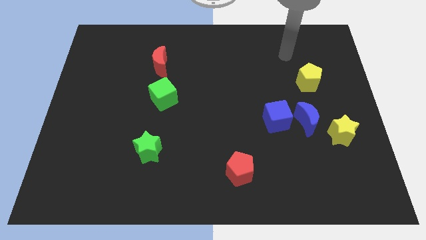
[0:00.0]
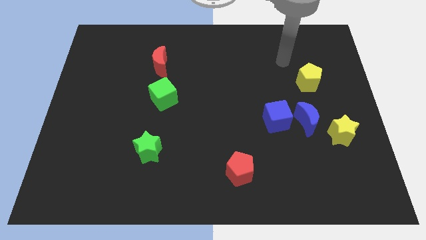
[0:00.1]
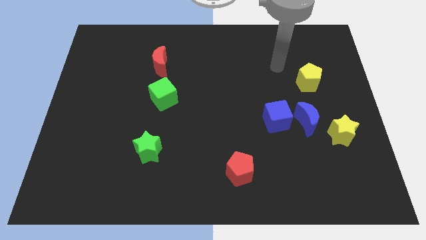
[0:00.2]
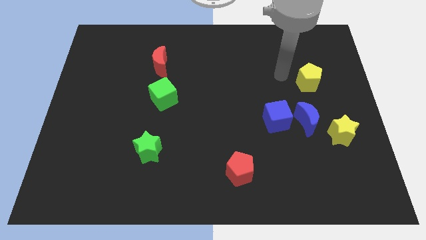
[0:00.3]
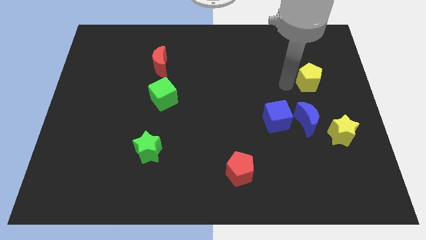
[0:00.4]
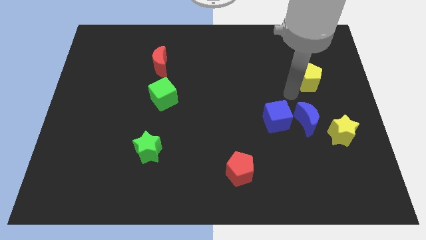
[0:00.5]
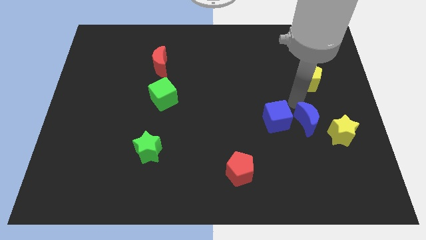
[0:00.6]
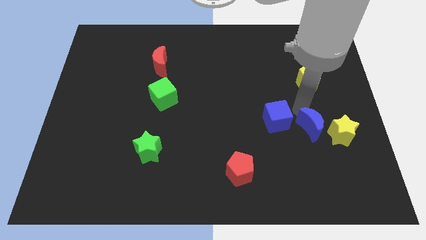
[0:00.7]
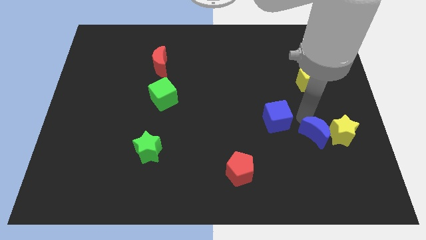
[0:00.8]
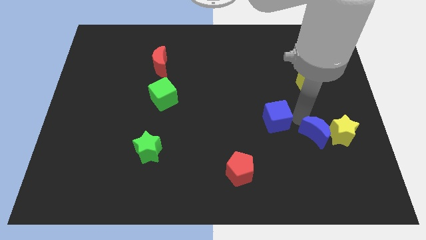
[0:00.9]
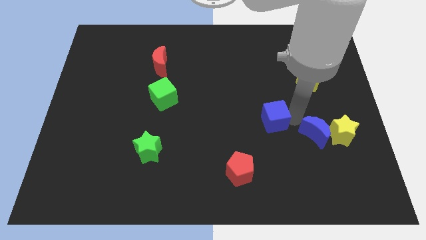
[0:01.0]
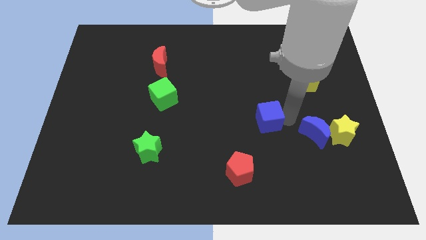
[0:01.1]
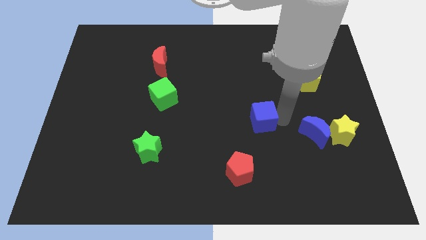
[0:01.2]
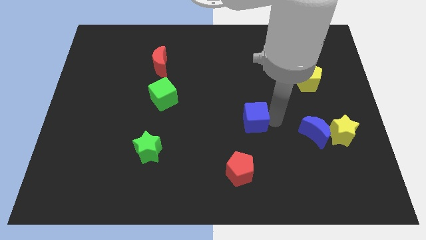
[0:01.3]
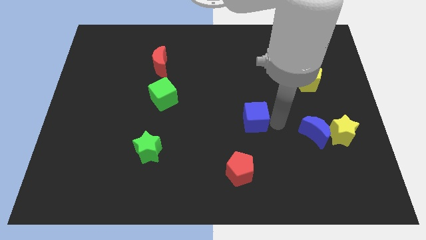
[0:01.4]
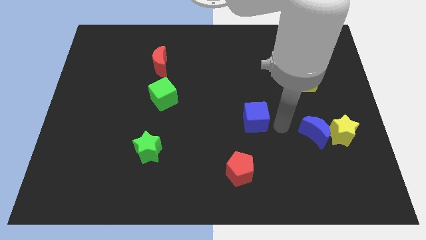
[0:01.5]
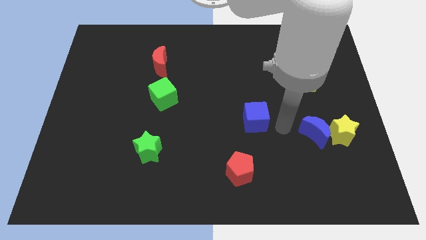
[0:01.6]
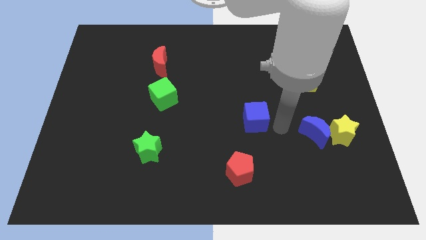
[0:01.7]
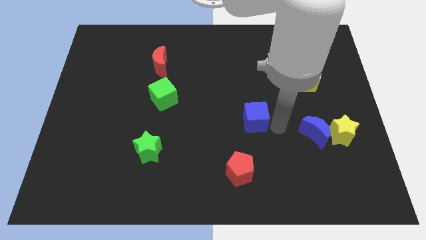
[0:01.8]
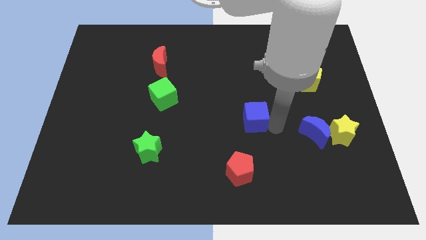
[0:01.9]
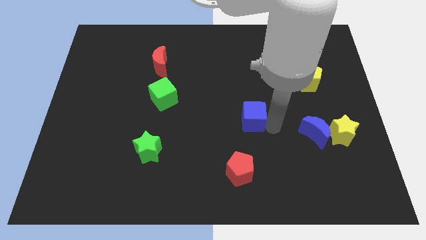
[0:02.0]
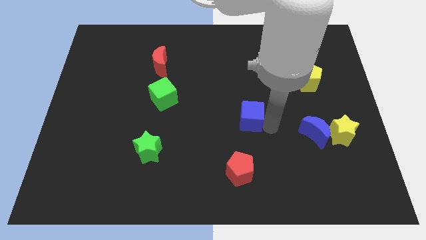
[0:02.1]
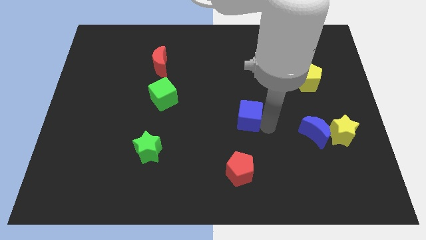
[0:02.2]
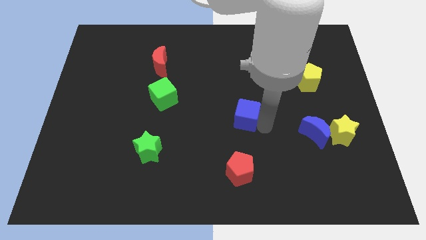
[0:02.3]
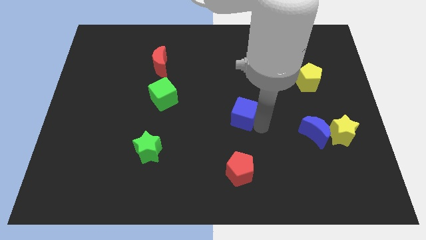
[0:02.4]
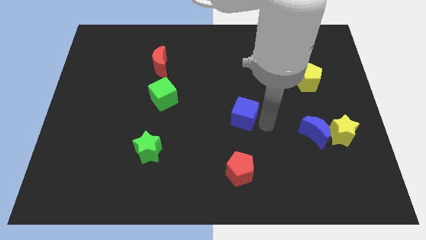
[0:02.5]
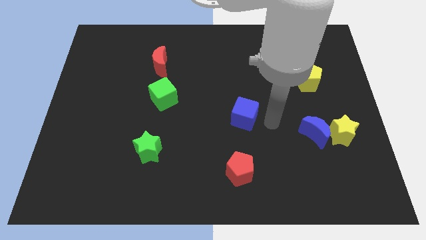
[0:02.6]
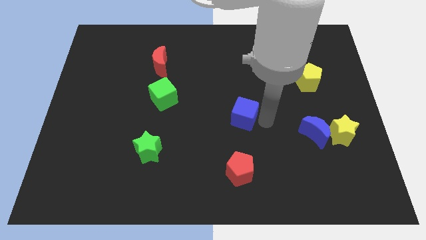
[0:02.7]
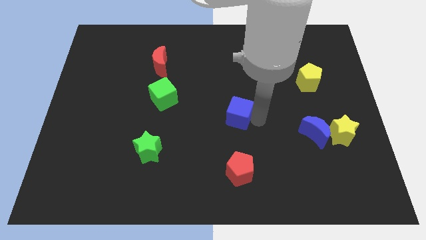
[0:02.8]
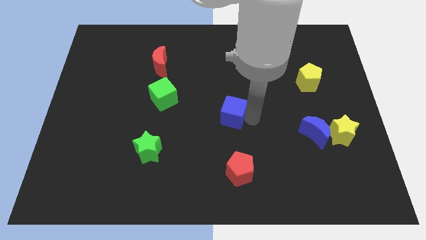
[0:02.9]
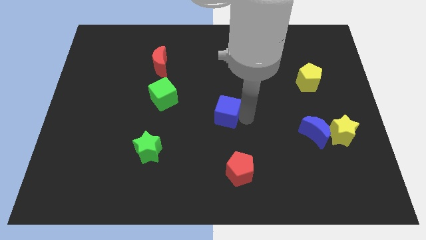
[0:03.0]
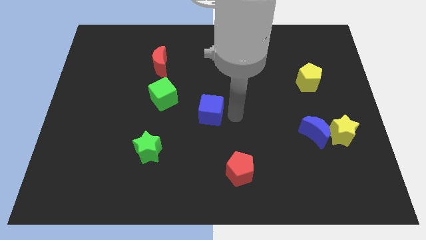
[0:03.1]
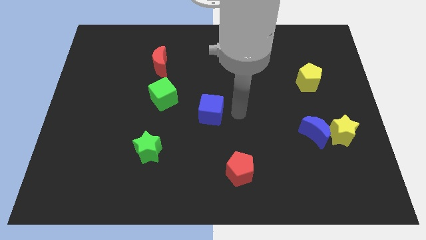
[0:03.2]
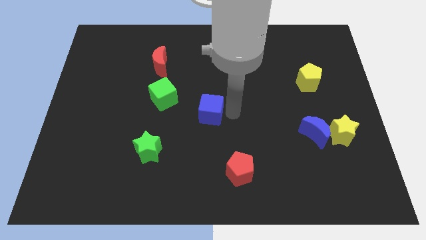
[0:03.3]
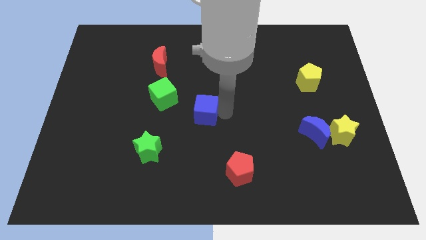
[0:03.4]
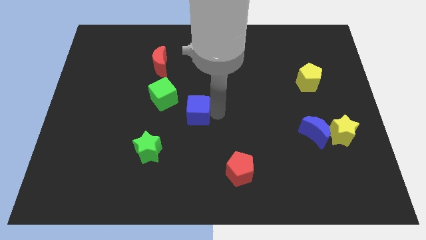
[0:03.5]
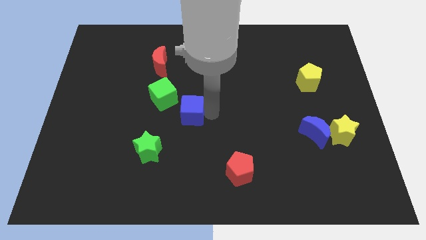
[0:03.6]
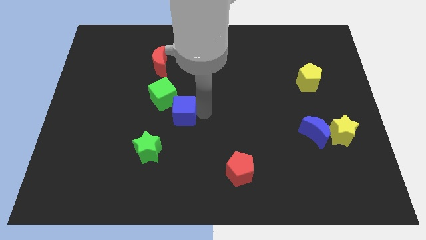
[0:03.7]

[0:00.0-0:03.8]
push the blue cube to the left

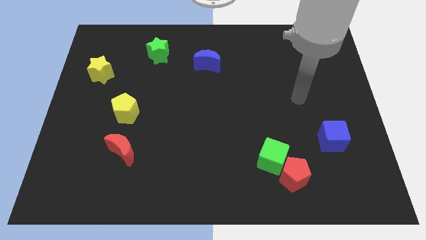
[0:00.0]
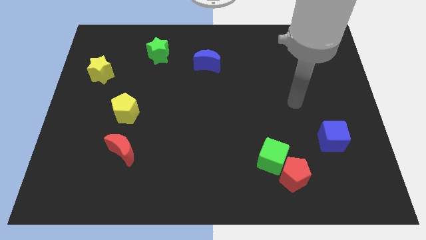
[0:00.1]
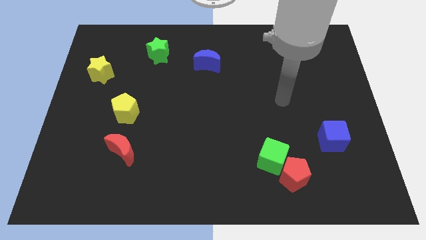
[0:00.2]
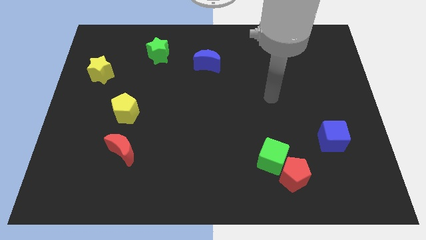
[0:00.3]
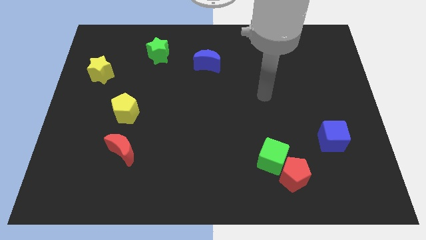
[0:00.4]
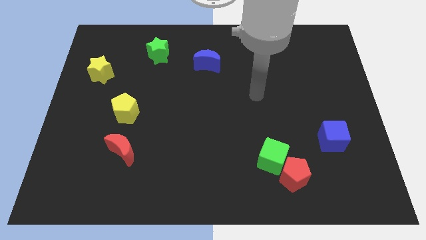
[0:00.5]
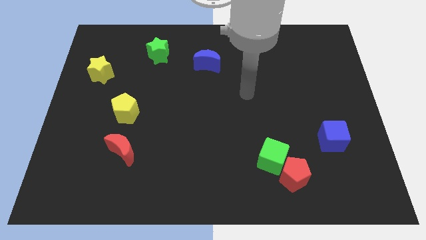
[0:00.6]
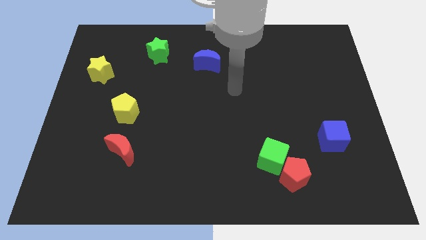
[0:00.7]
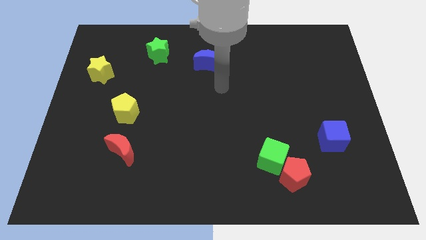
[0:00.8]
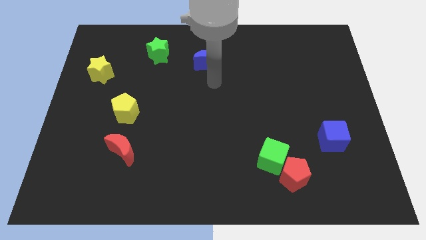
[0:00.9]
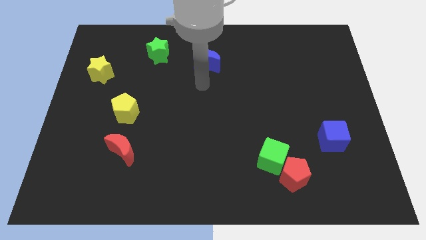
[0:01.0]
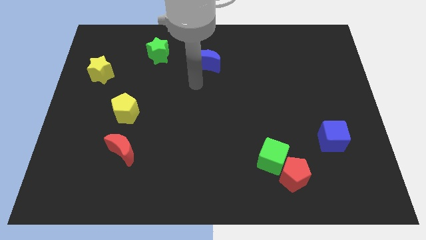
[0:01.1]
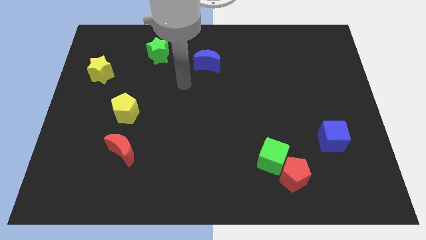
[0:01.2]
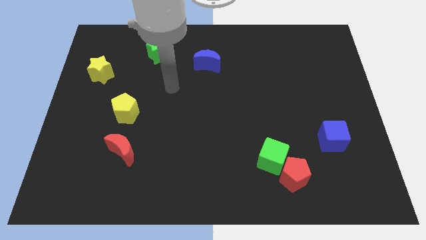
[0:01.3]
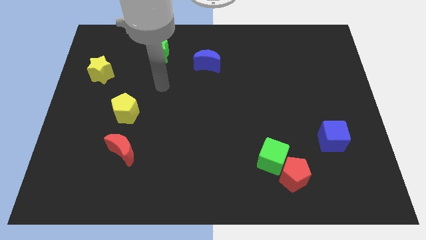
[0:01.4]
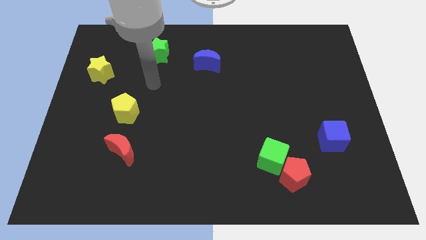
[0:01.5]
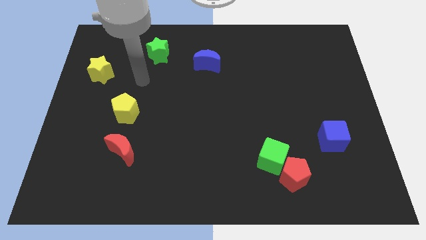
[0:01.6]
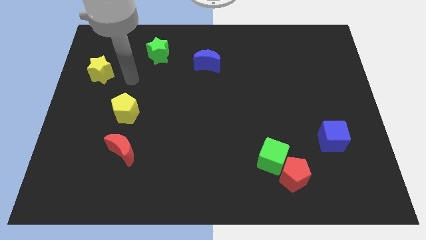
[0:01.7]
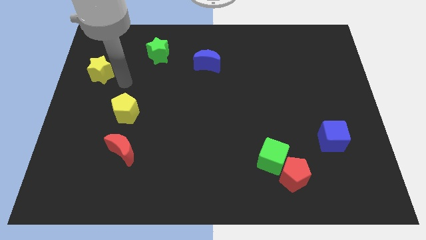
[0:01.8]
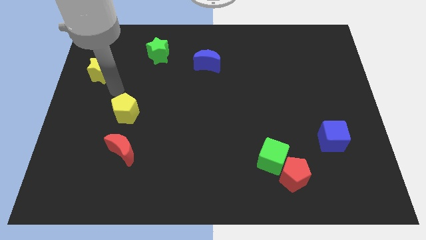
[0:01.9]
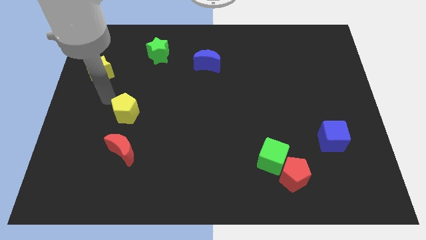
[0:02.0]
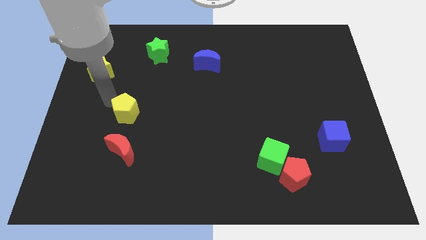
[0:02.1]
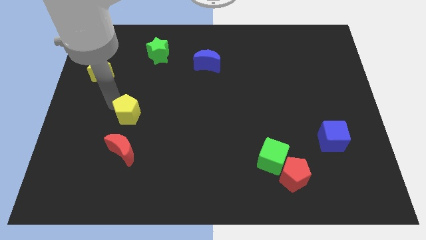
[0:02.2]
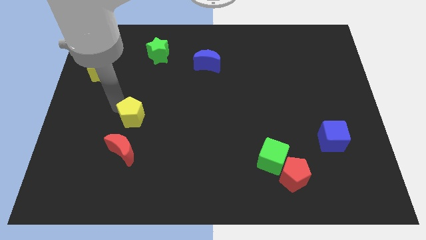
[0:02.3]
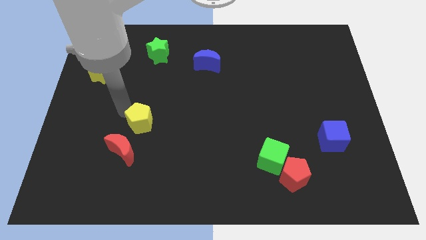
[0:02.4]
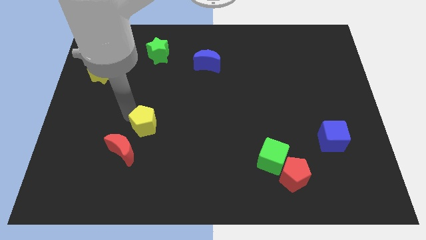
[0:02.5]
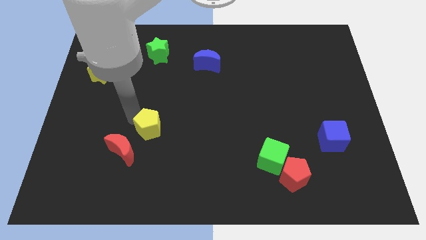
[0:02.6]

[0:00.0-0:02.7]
slightly move the yellow pentagon downwards and to the right

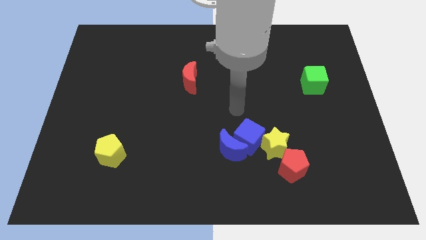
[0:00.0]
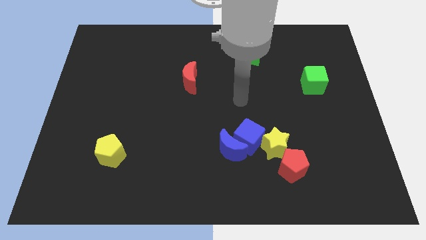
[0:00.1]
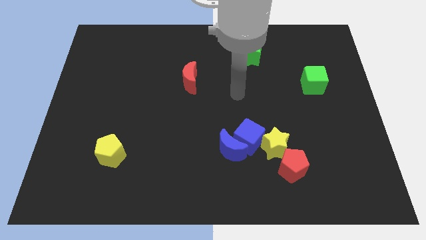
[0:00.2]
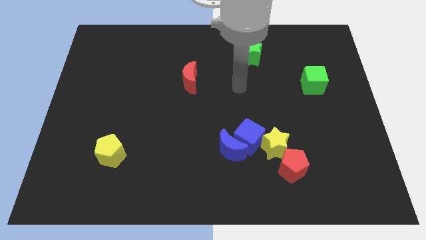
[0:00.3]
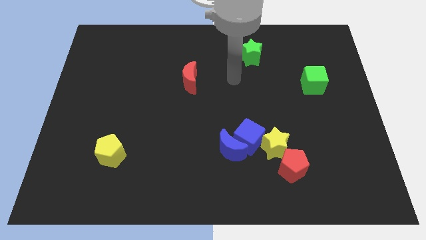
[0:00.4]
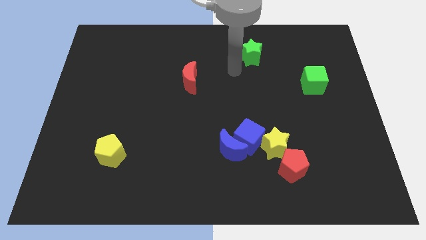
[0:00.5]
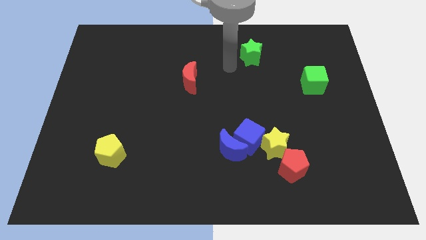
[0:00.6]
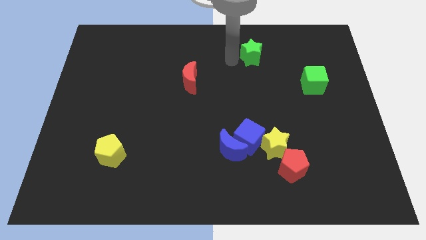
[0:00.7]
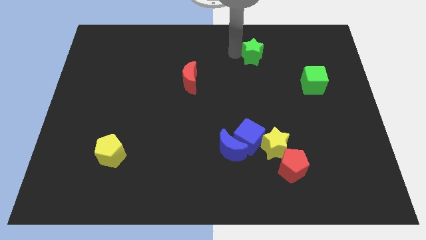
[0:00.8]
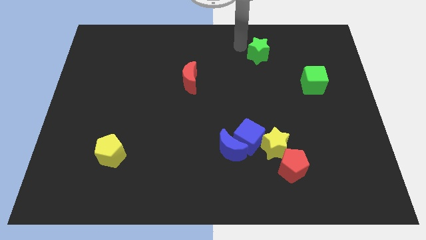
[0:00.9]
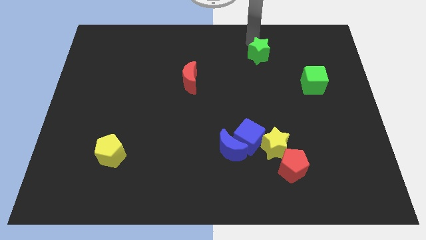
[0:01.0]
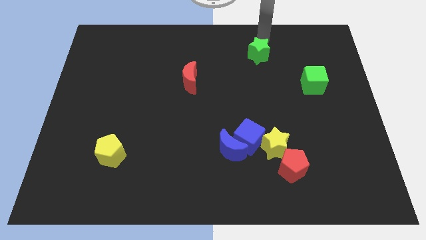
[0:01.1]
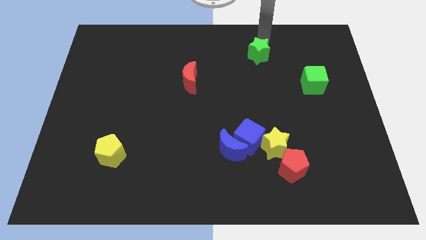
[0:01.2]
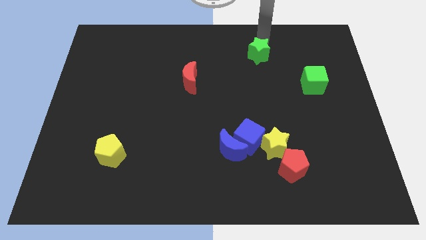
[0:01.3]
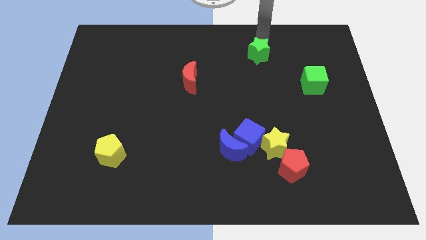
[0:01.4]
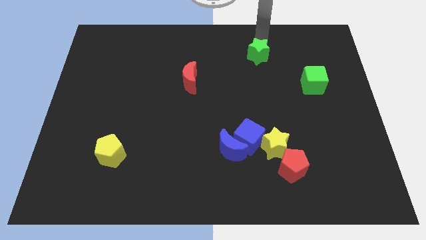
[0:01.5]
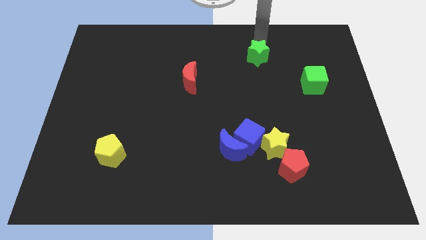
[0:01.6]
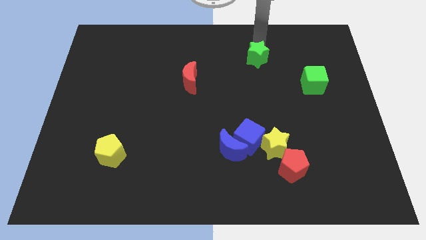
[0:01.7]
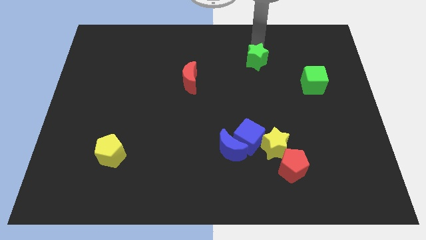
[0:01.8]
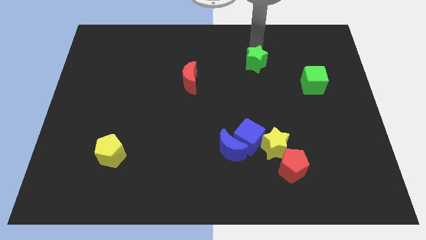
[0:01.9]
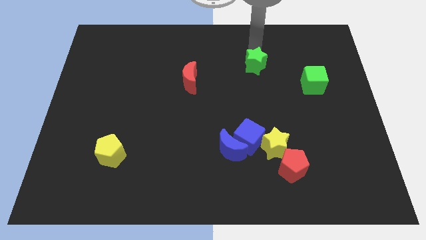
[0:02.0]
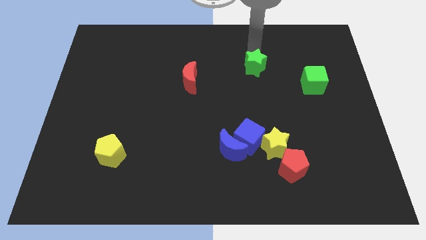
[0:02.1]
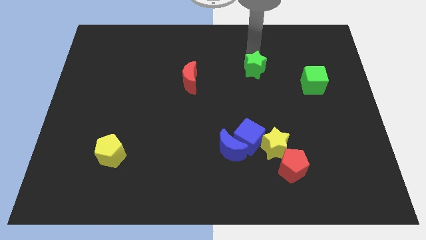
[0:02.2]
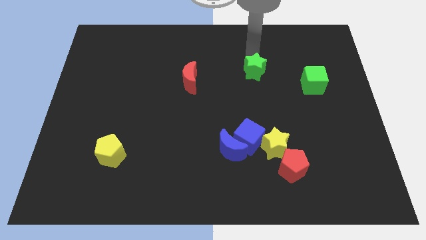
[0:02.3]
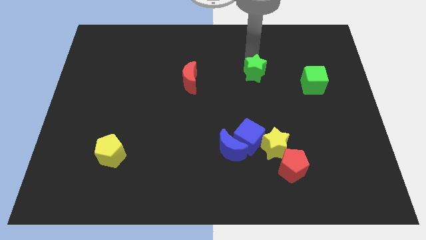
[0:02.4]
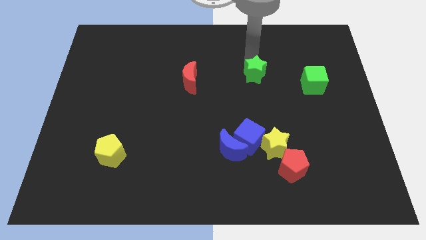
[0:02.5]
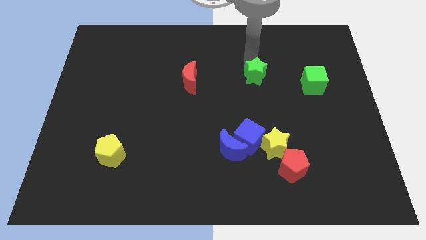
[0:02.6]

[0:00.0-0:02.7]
slightly move the green star down
